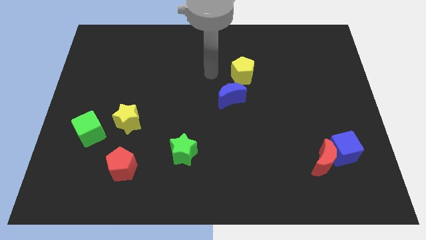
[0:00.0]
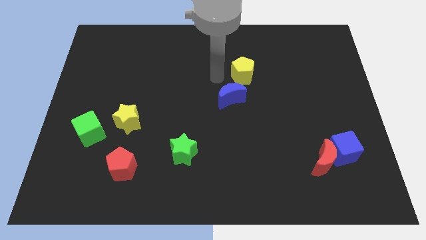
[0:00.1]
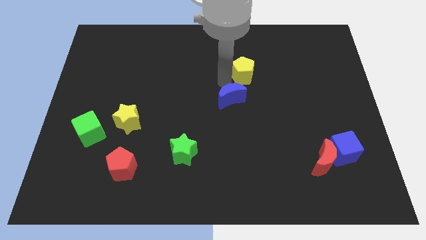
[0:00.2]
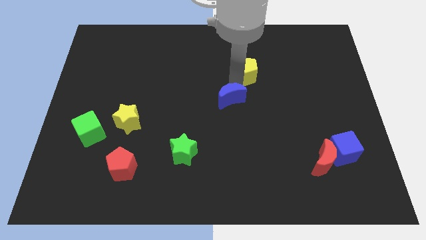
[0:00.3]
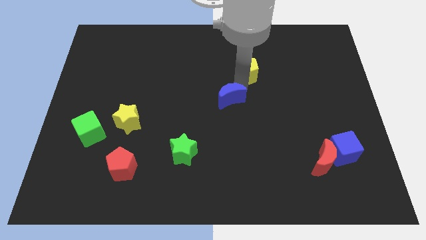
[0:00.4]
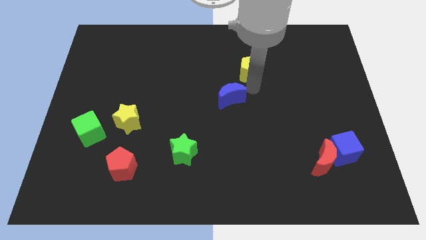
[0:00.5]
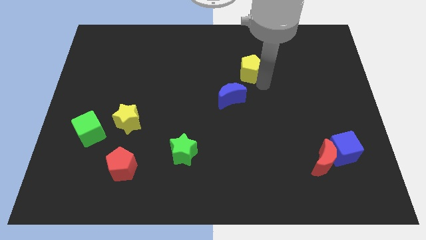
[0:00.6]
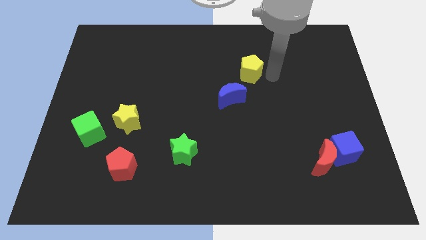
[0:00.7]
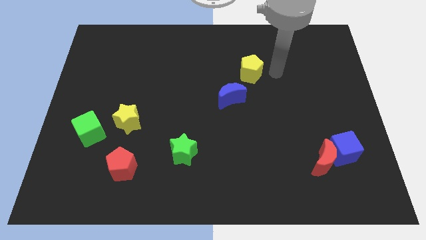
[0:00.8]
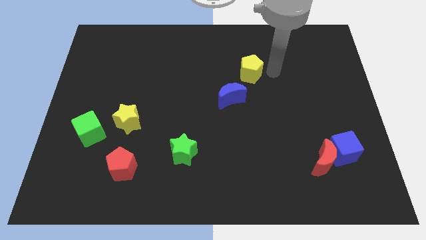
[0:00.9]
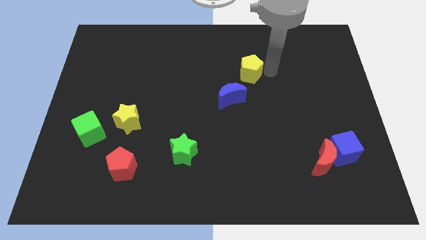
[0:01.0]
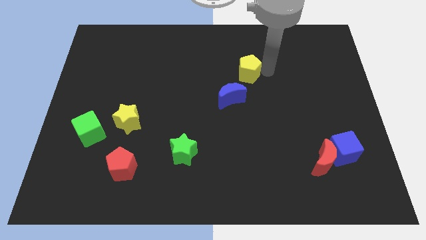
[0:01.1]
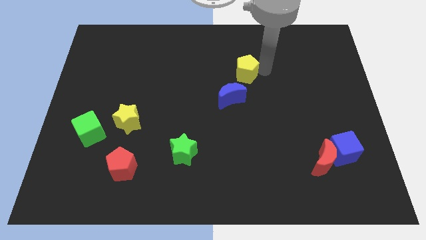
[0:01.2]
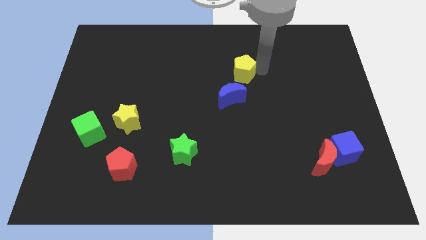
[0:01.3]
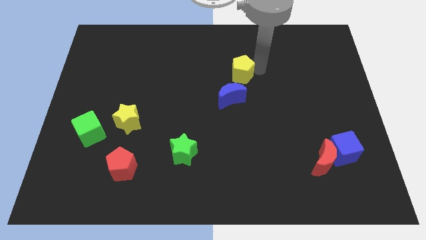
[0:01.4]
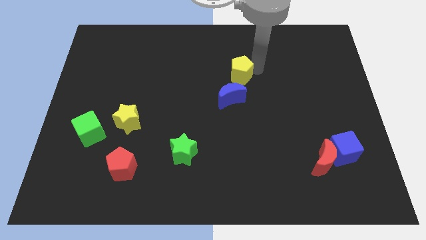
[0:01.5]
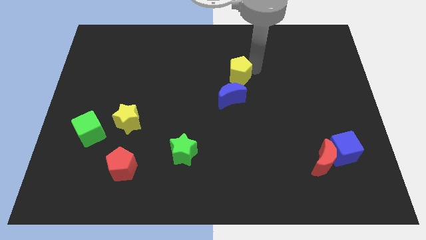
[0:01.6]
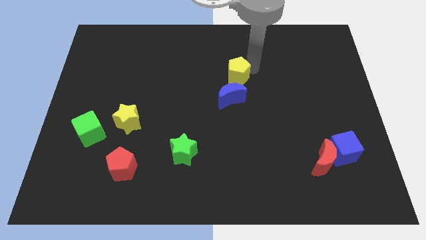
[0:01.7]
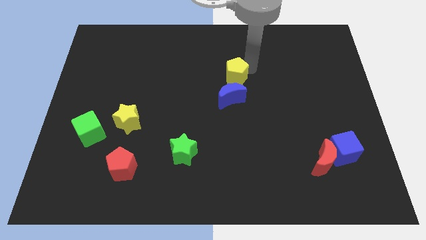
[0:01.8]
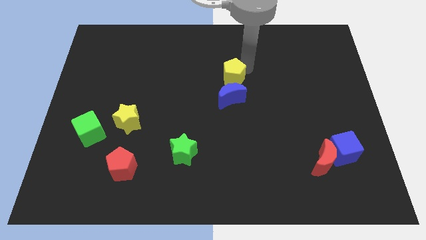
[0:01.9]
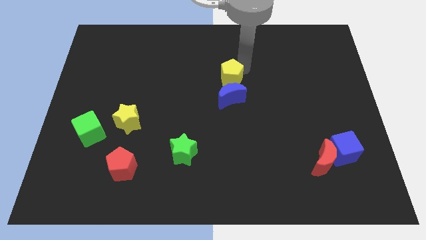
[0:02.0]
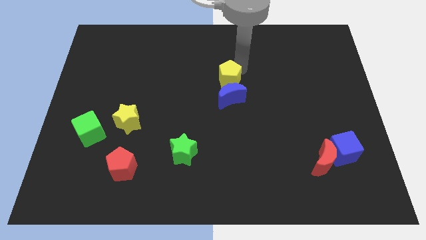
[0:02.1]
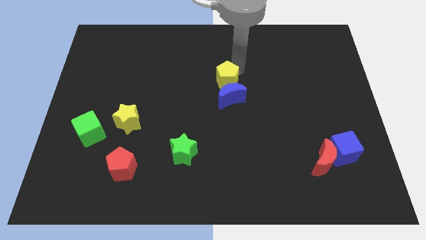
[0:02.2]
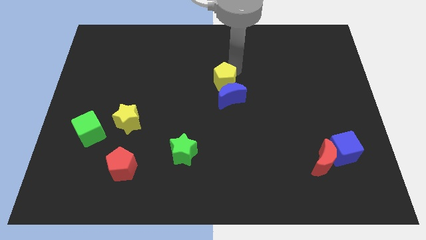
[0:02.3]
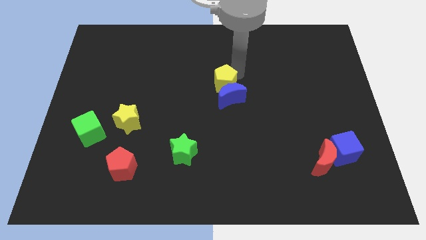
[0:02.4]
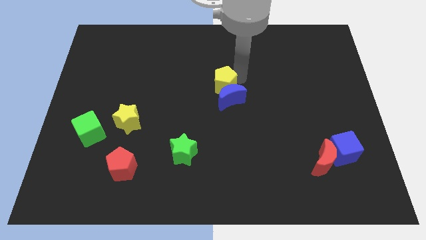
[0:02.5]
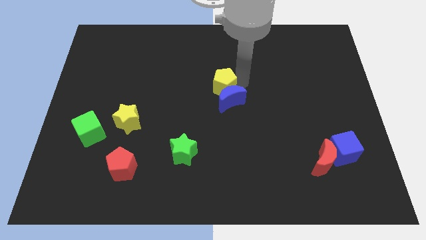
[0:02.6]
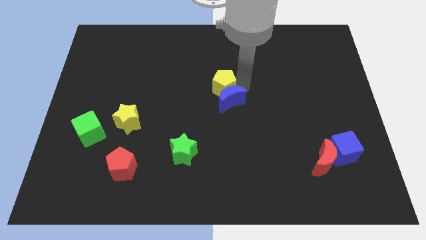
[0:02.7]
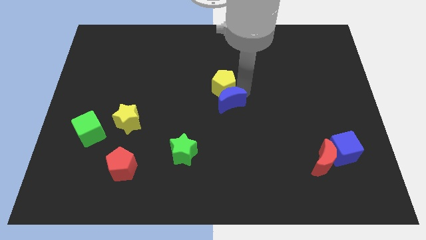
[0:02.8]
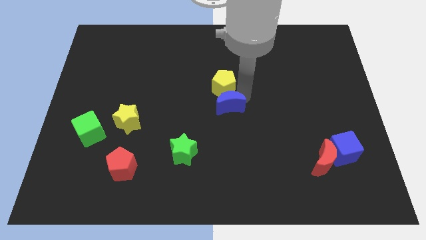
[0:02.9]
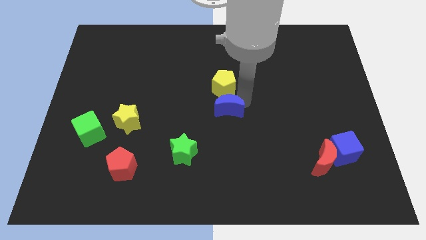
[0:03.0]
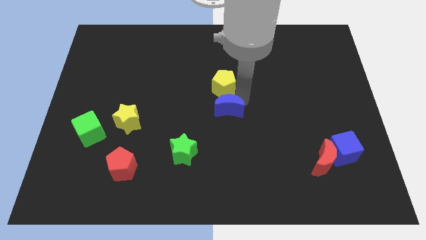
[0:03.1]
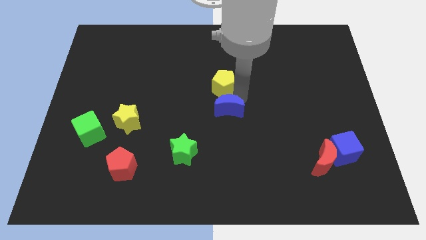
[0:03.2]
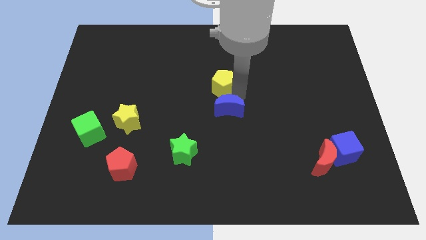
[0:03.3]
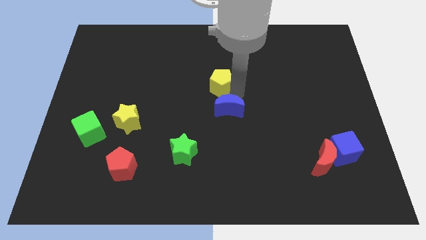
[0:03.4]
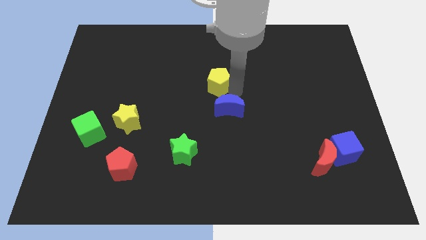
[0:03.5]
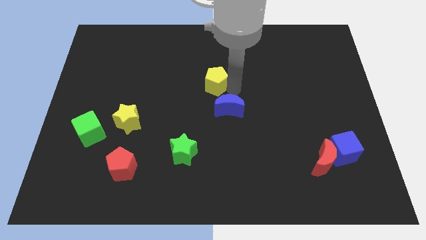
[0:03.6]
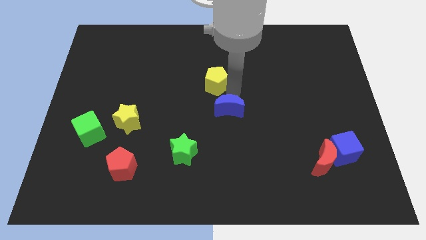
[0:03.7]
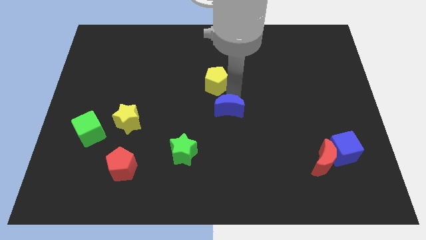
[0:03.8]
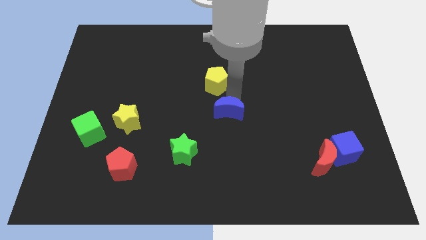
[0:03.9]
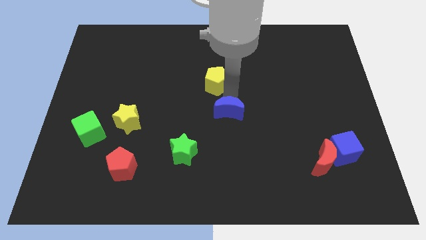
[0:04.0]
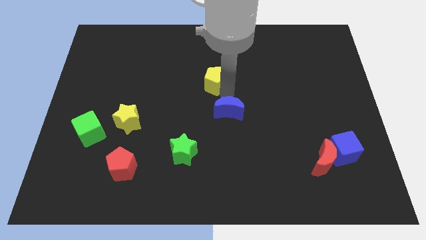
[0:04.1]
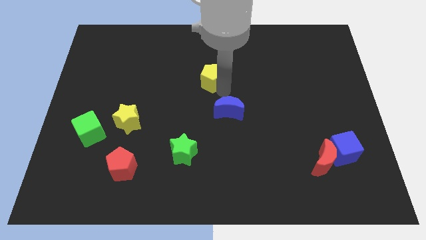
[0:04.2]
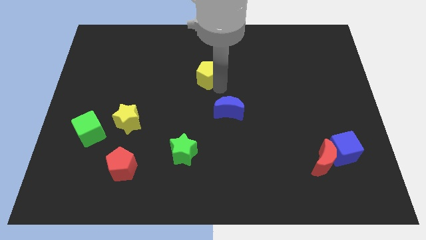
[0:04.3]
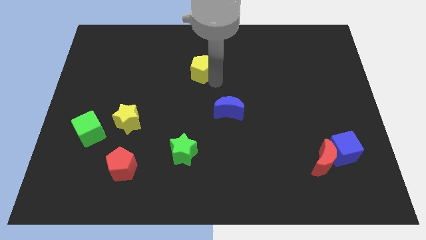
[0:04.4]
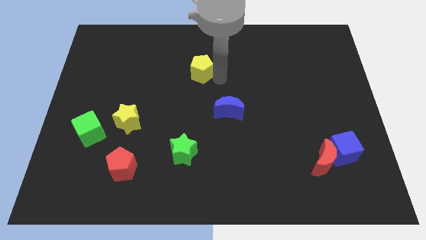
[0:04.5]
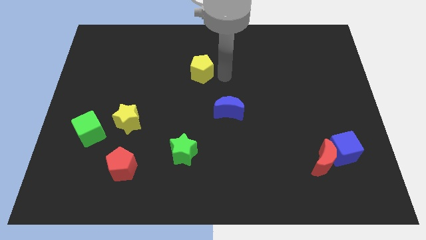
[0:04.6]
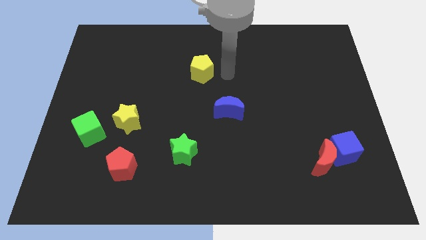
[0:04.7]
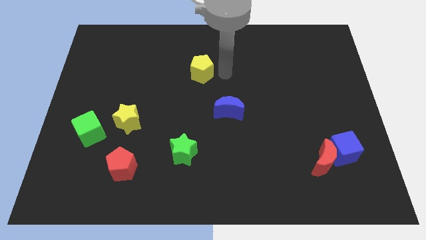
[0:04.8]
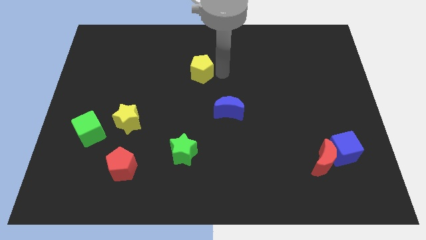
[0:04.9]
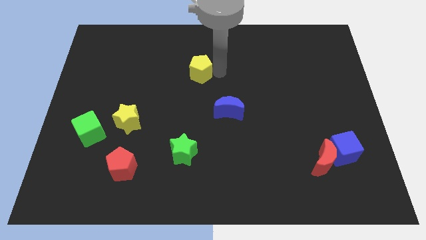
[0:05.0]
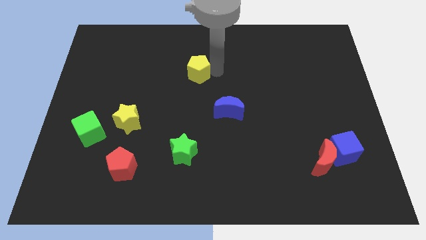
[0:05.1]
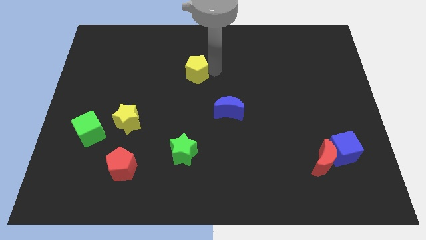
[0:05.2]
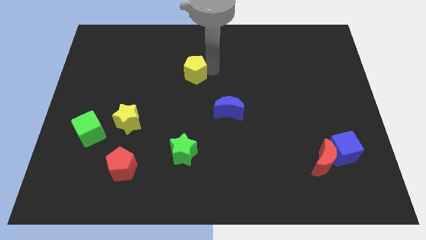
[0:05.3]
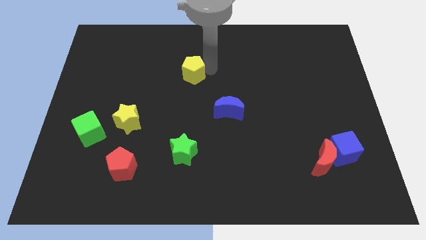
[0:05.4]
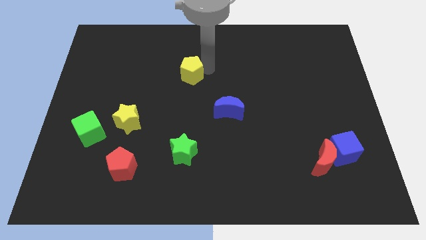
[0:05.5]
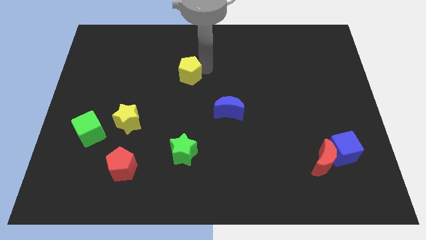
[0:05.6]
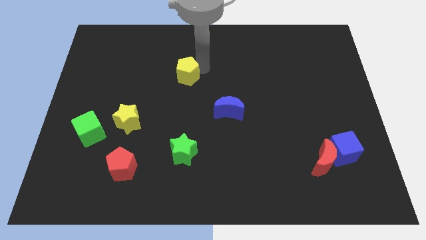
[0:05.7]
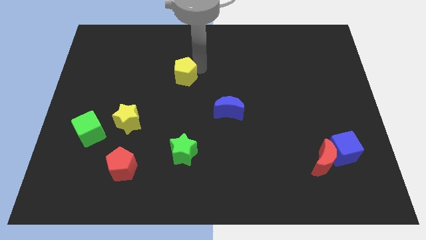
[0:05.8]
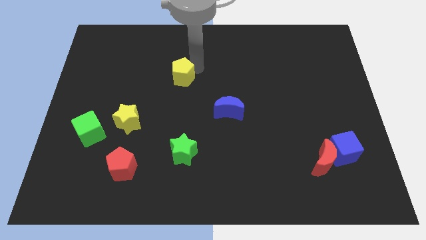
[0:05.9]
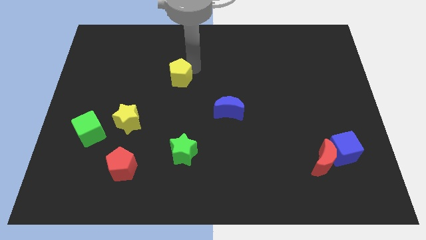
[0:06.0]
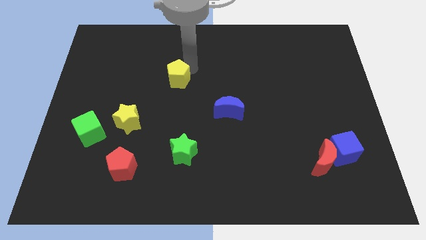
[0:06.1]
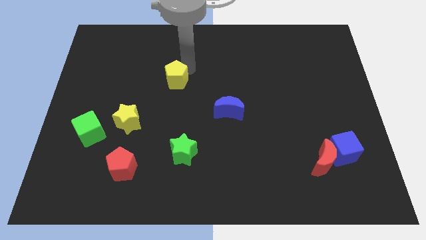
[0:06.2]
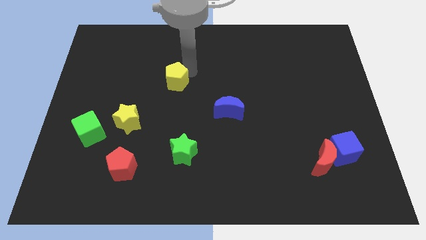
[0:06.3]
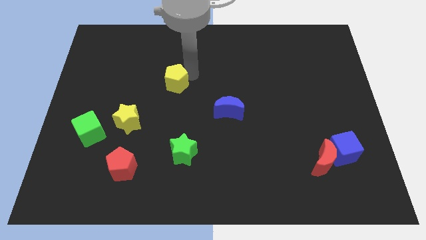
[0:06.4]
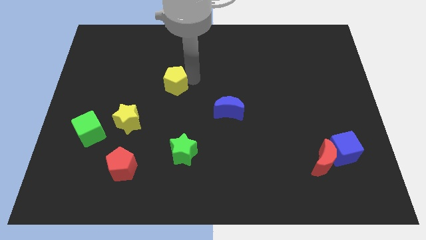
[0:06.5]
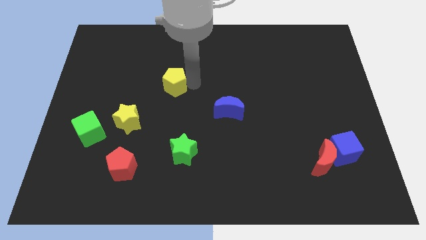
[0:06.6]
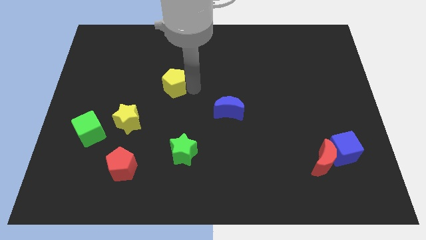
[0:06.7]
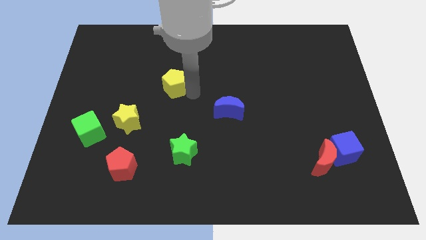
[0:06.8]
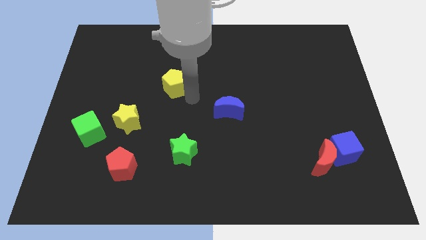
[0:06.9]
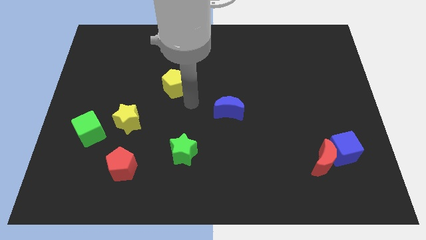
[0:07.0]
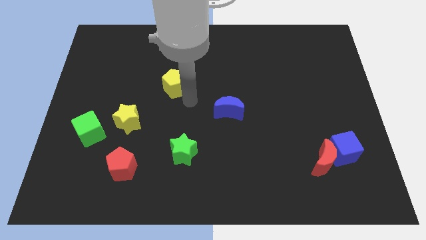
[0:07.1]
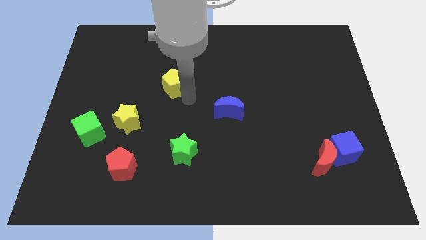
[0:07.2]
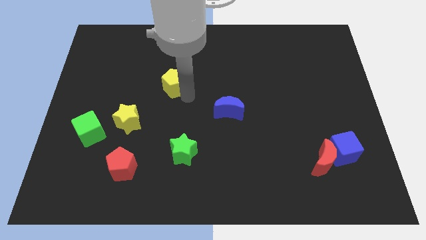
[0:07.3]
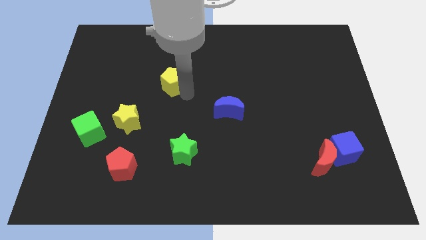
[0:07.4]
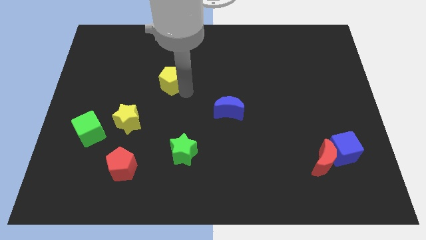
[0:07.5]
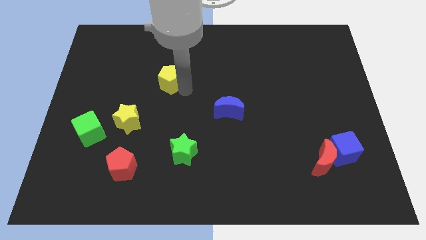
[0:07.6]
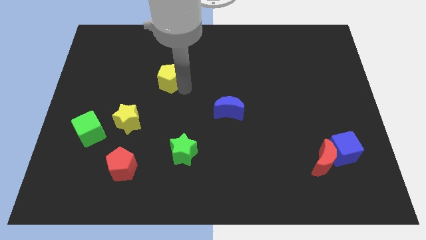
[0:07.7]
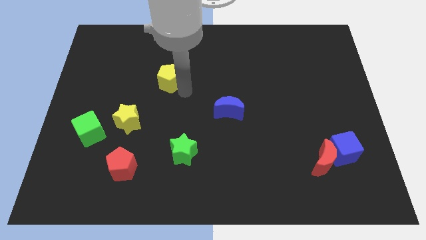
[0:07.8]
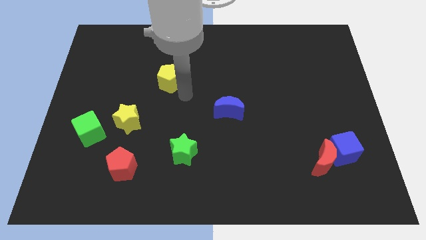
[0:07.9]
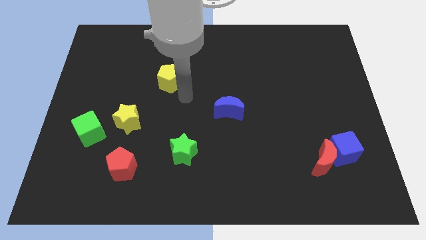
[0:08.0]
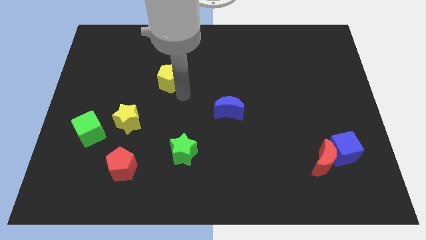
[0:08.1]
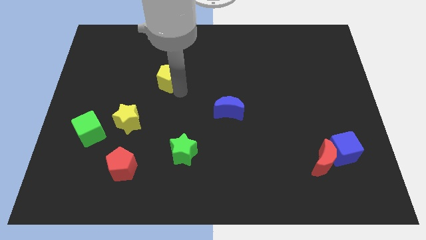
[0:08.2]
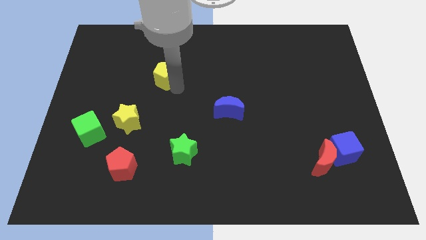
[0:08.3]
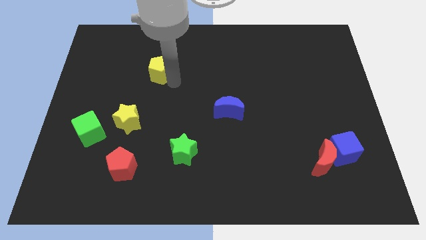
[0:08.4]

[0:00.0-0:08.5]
push the yellow pentagon left
